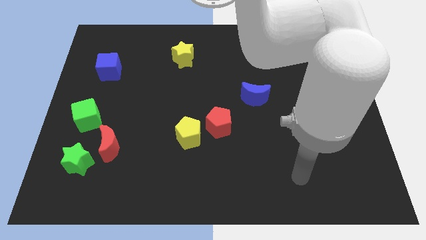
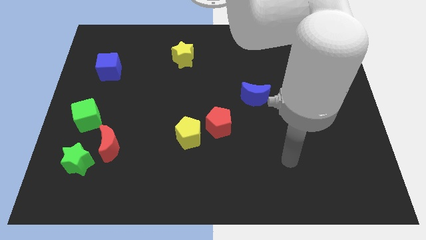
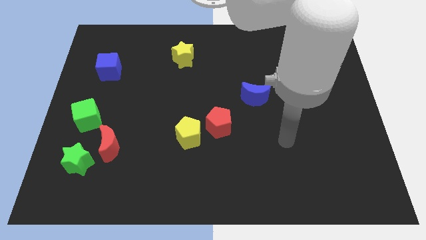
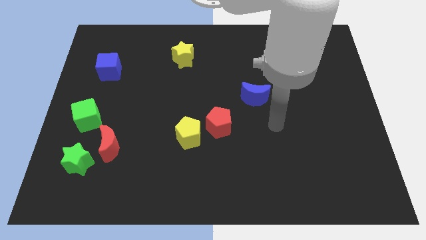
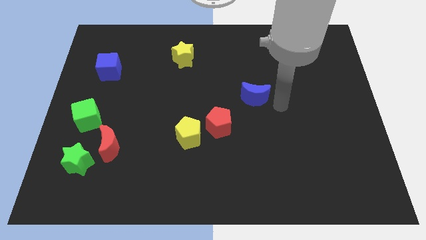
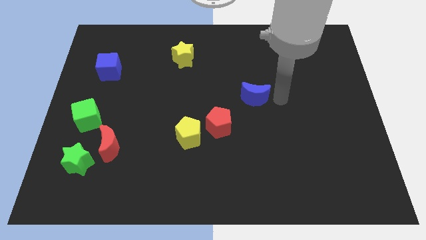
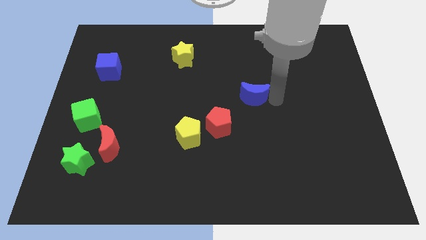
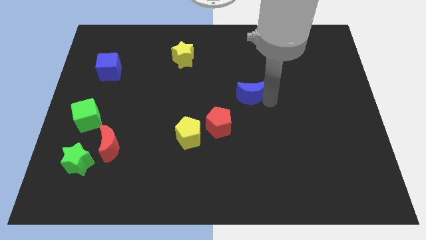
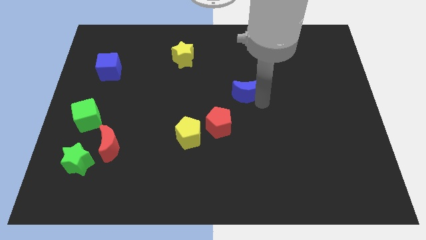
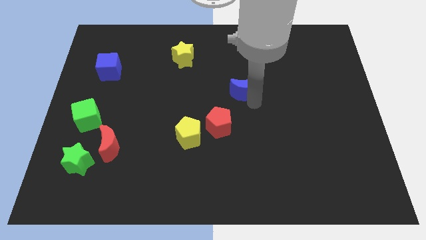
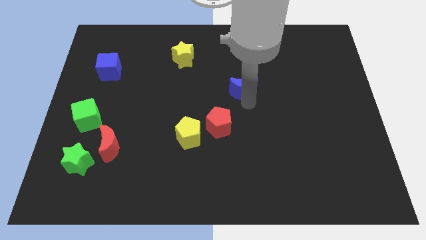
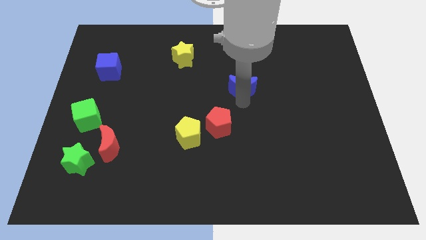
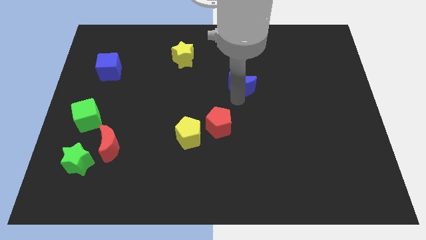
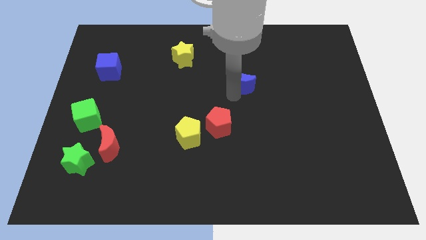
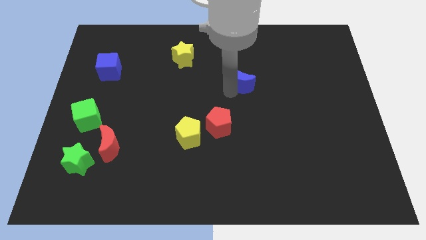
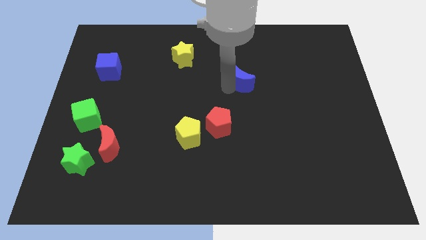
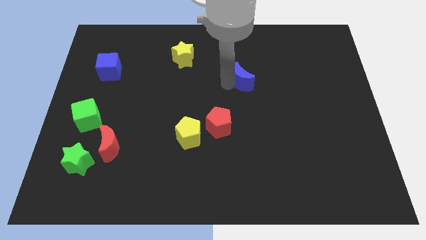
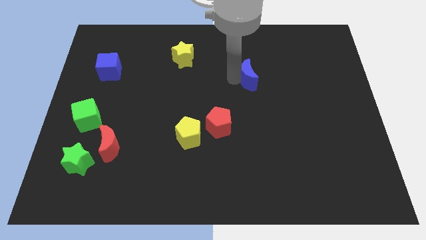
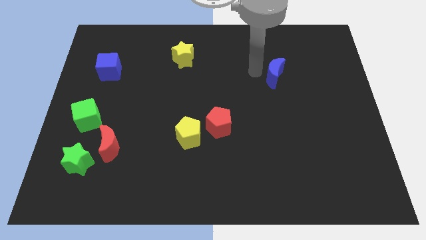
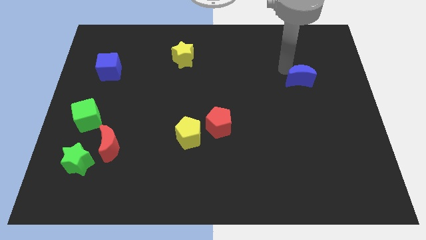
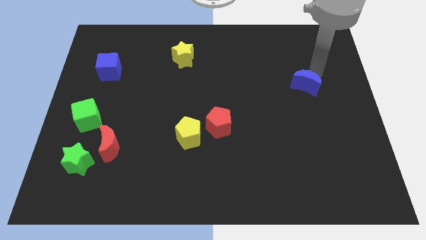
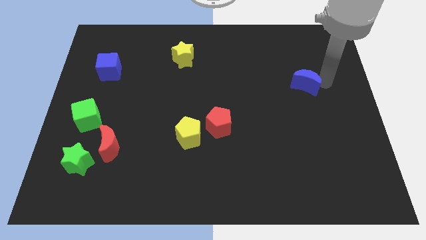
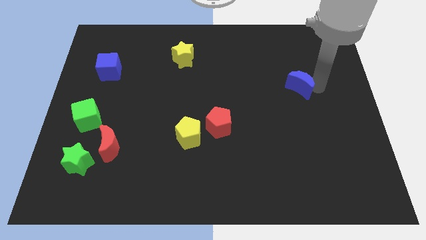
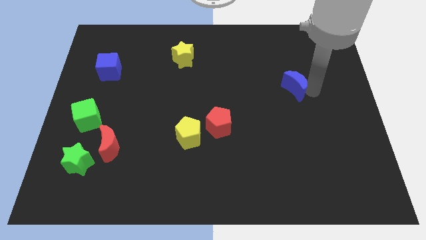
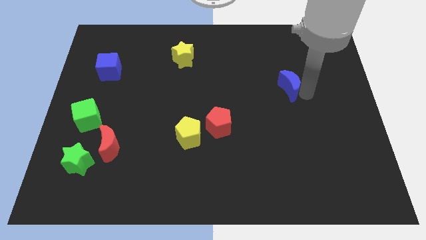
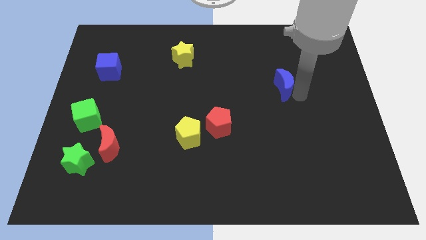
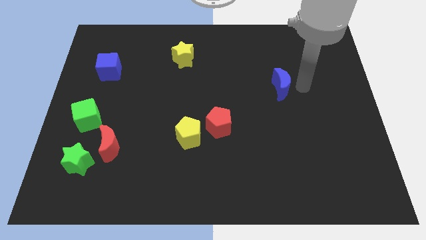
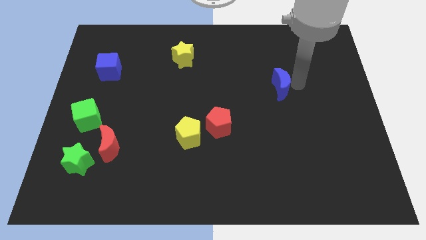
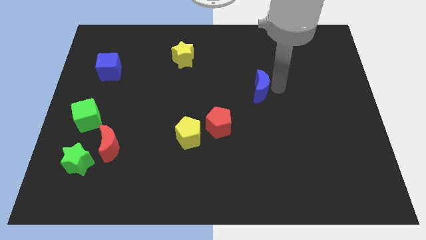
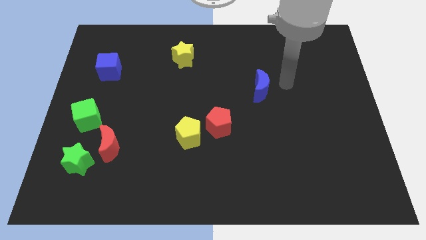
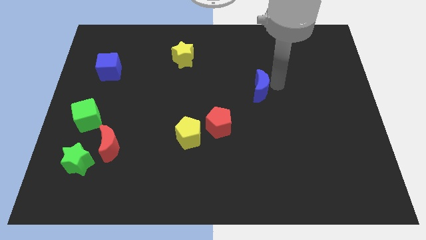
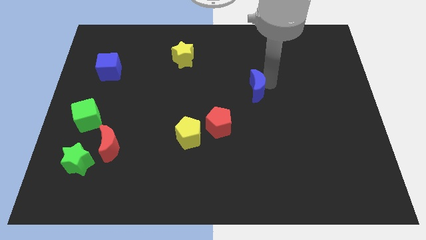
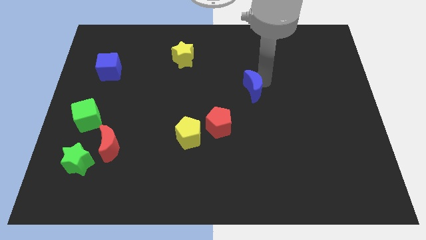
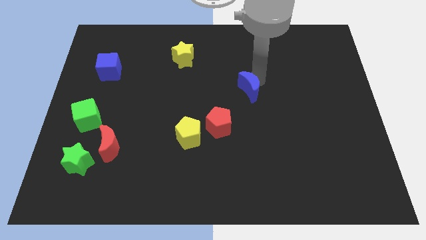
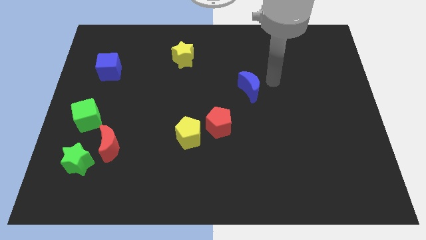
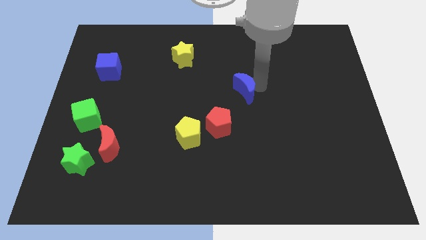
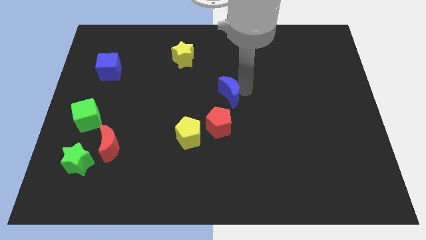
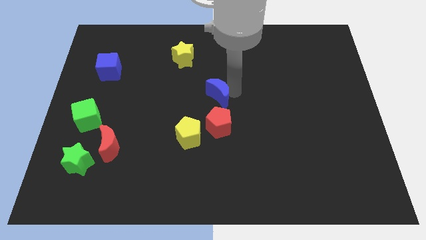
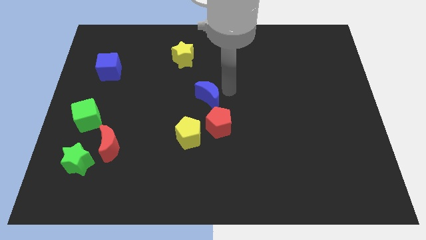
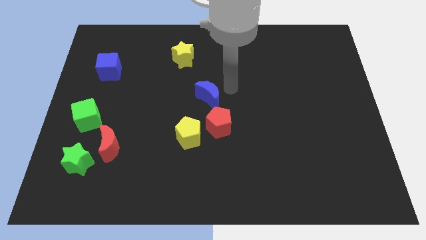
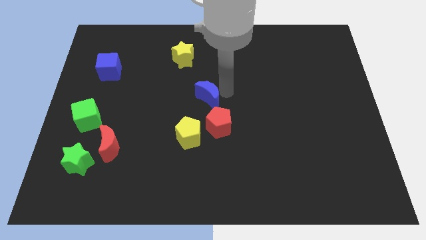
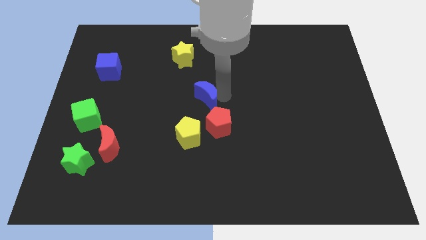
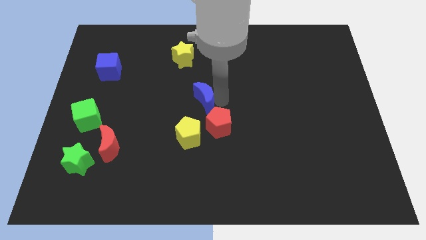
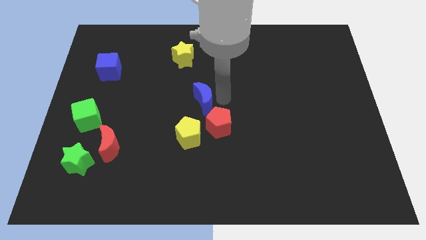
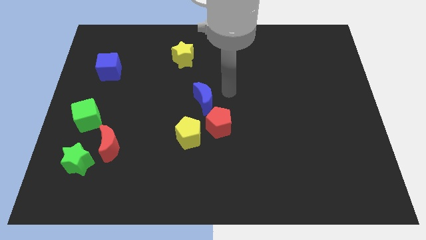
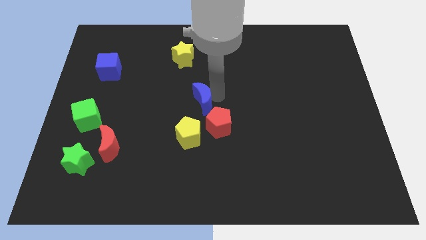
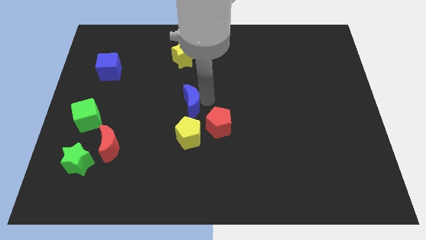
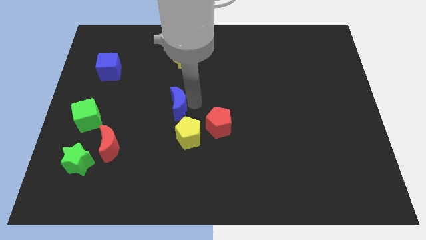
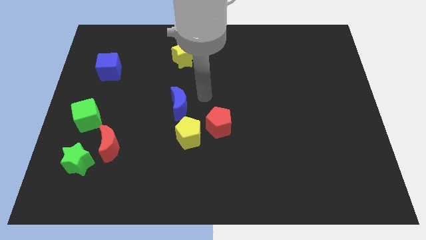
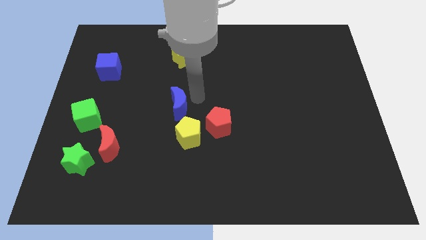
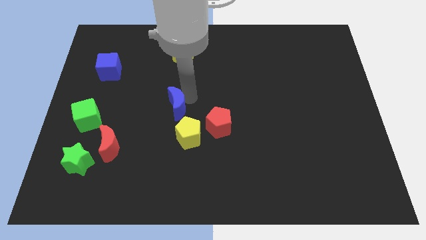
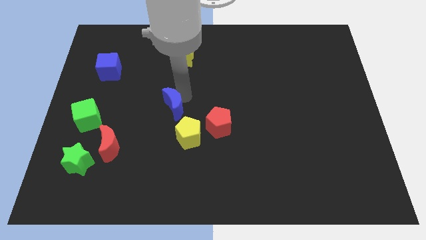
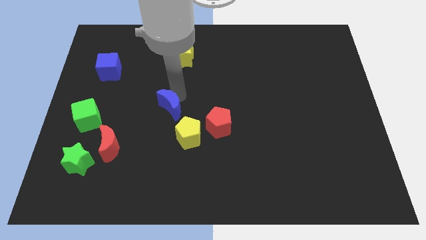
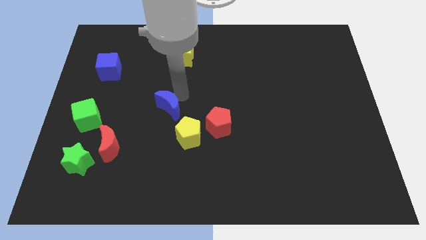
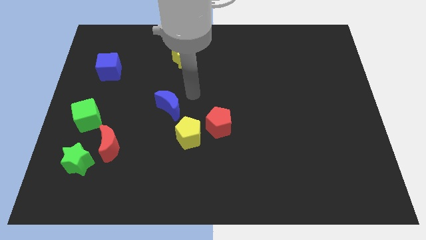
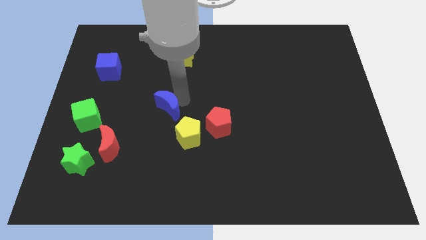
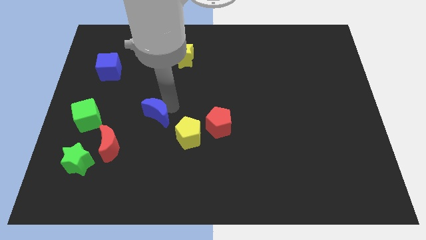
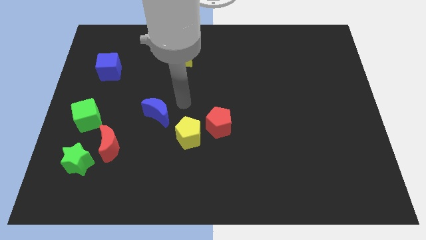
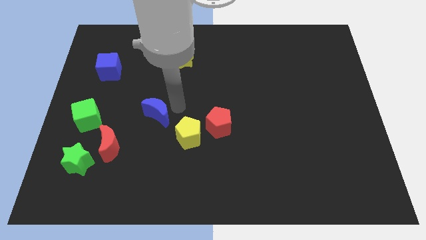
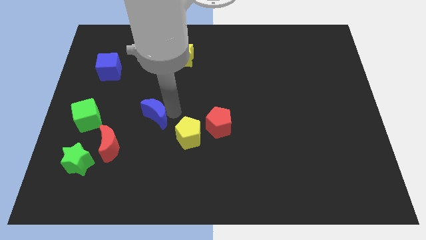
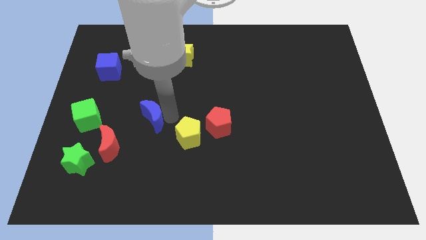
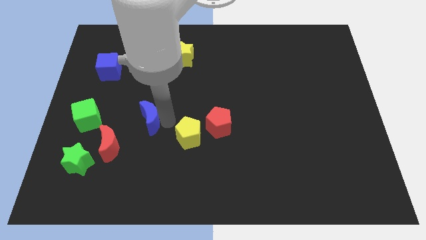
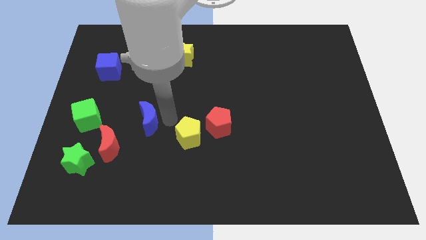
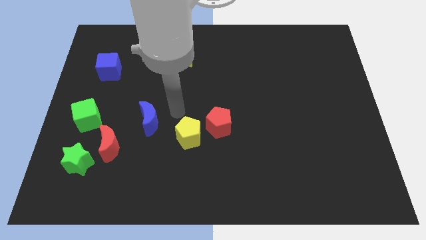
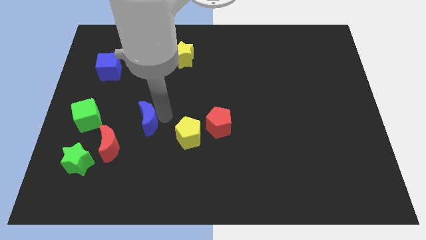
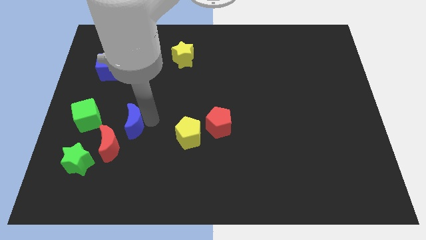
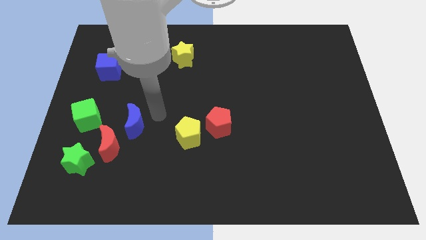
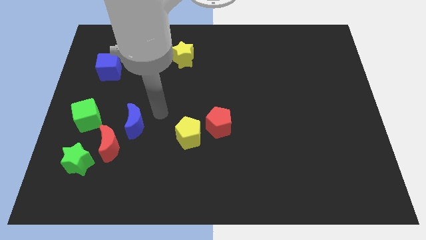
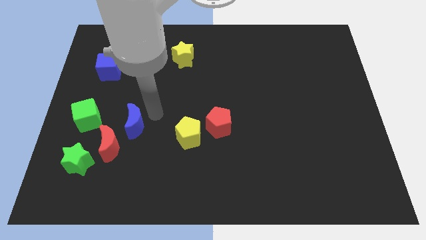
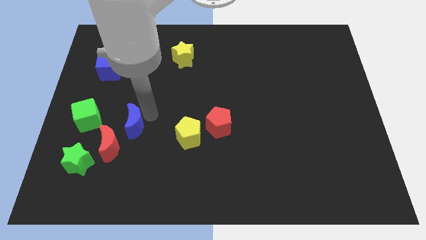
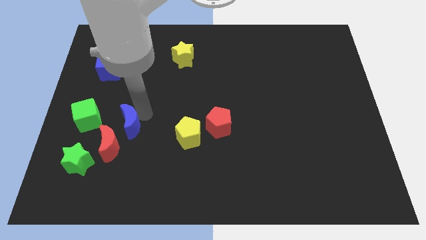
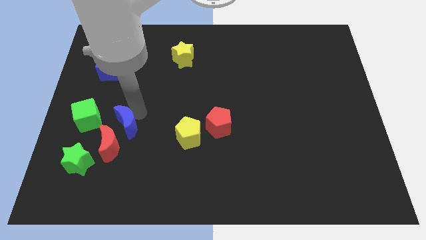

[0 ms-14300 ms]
slide the blue moon to the top right side of the green star

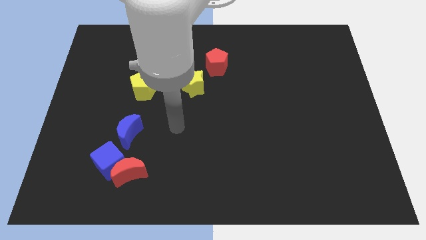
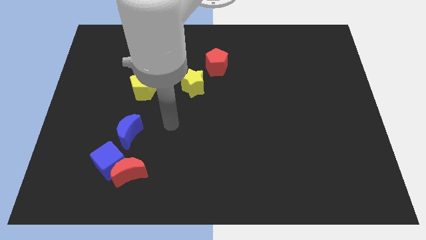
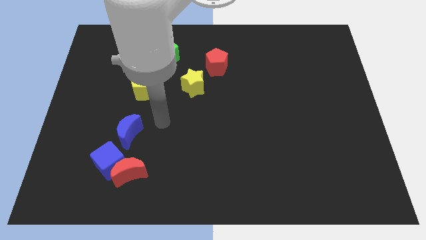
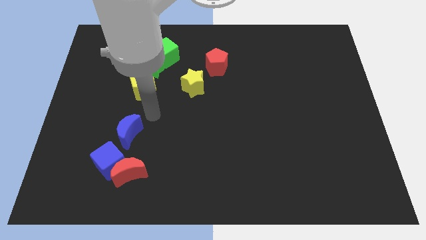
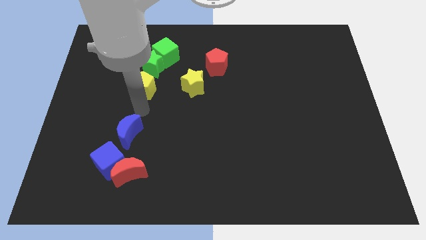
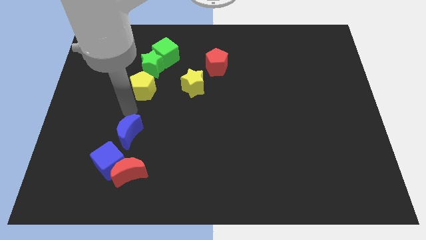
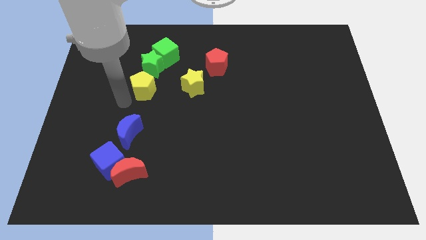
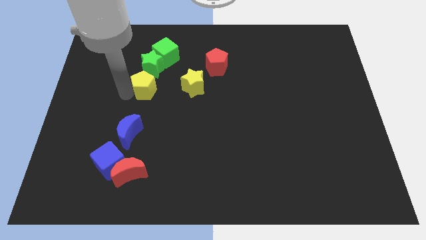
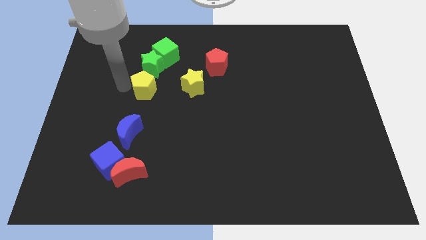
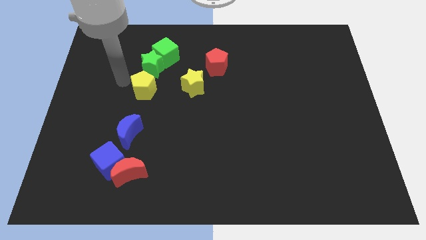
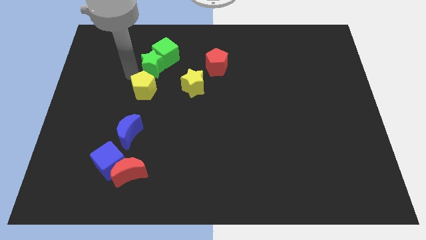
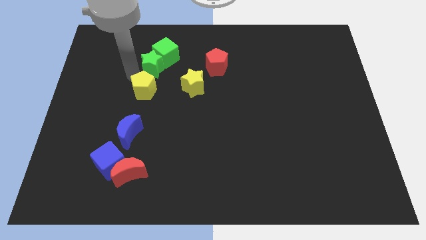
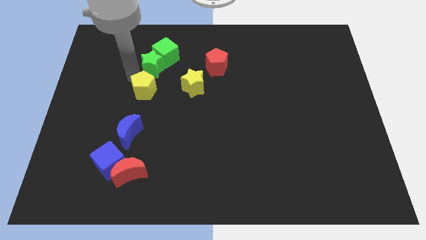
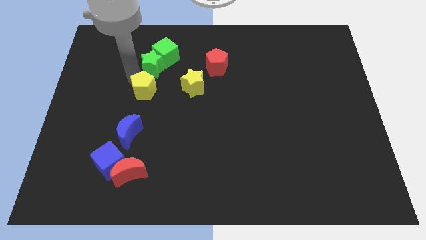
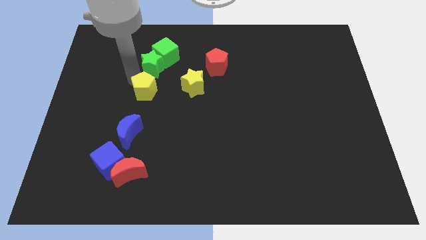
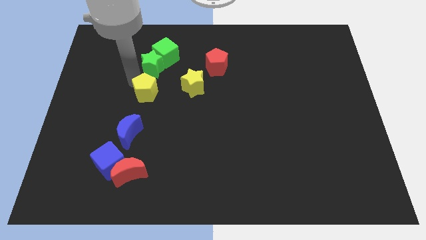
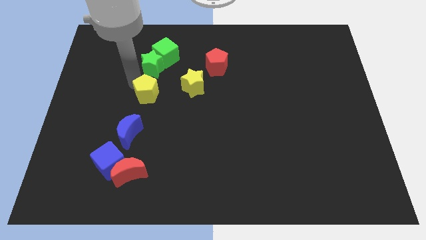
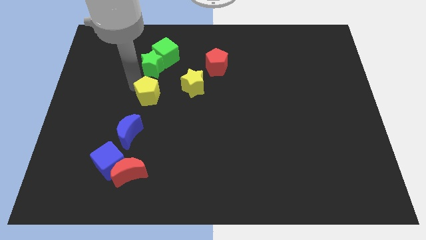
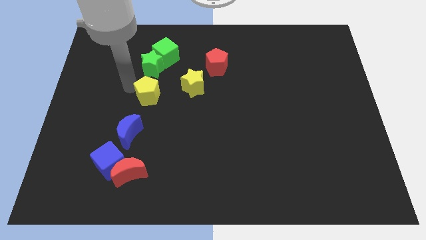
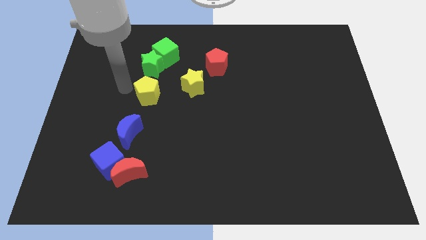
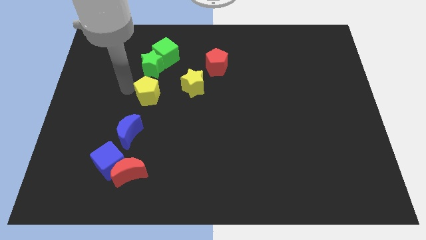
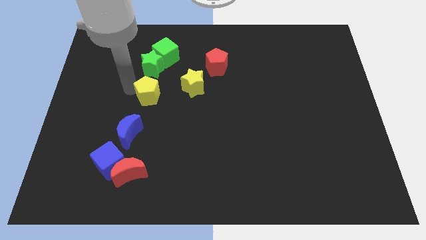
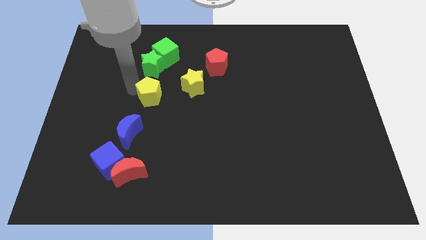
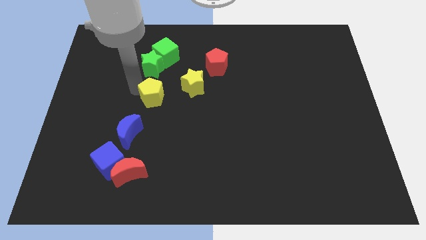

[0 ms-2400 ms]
push the yellow pentagon to the bottom left of the yellow star
